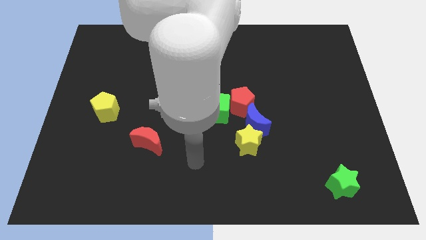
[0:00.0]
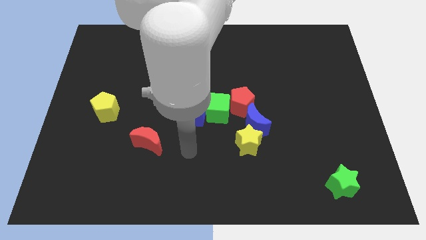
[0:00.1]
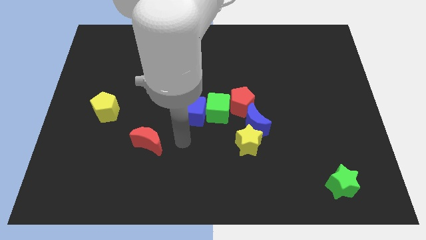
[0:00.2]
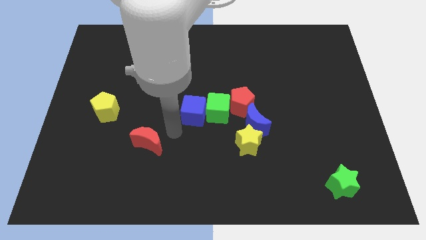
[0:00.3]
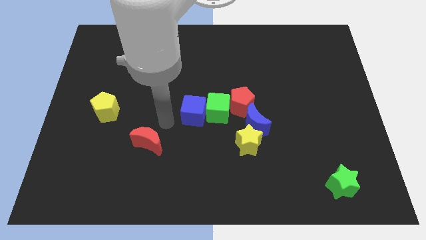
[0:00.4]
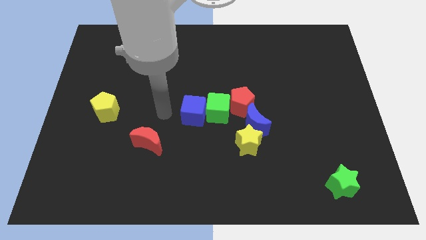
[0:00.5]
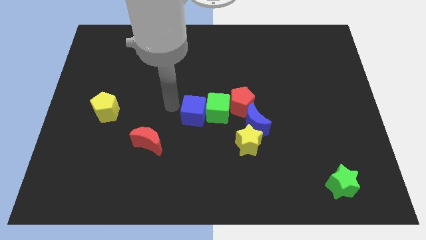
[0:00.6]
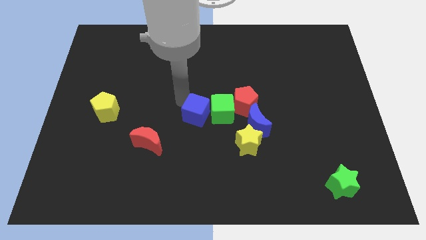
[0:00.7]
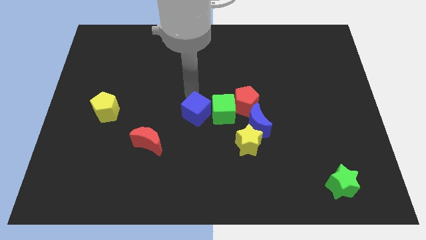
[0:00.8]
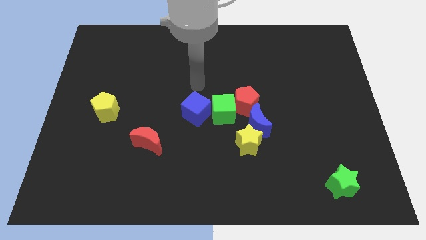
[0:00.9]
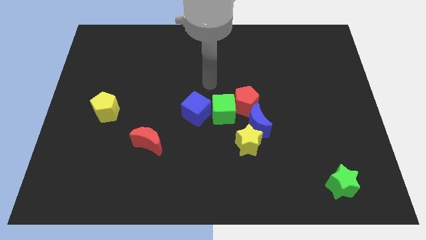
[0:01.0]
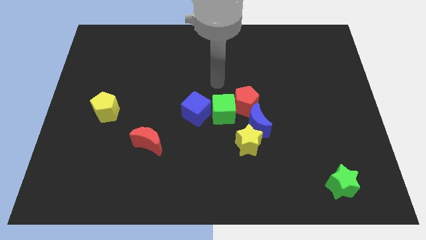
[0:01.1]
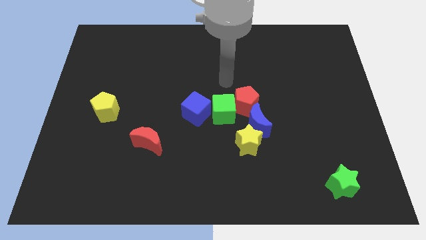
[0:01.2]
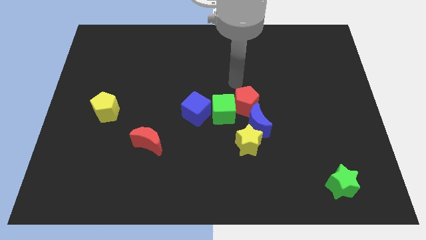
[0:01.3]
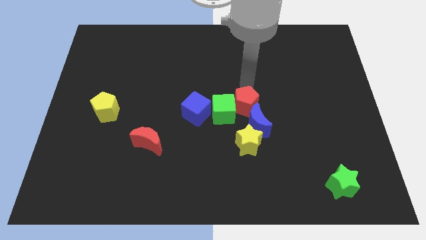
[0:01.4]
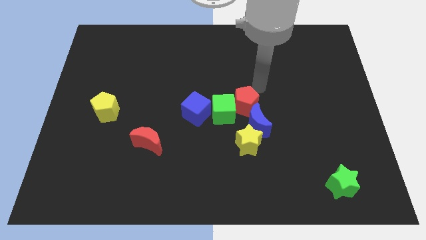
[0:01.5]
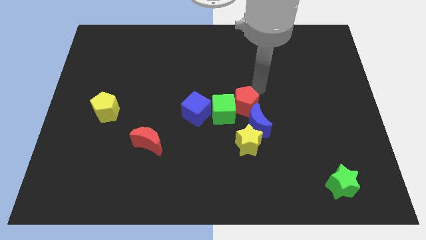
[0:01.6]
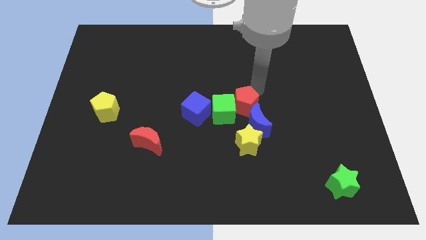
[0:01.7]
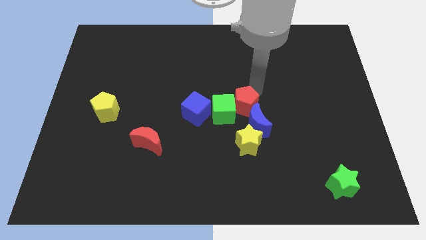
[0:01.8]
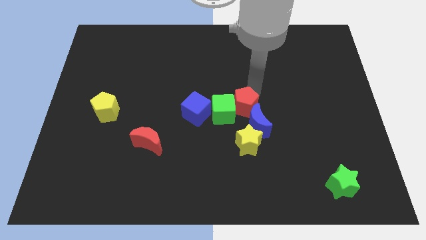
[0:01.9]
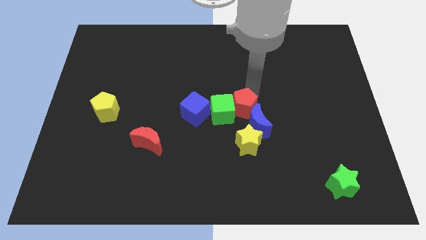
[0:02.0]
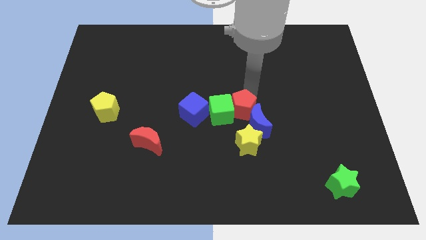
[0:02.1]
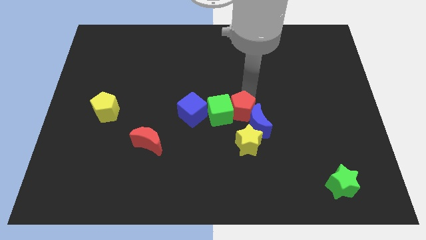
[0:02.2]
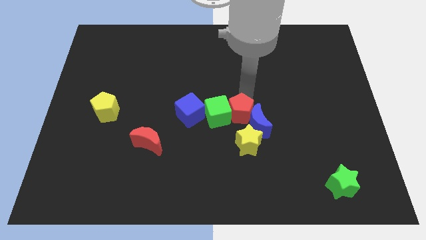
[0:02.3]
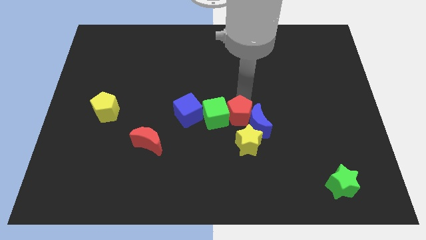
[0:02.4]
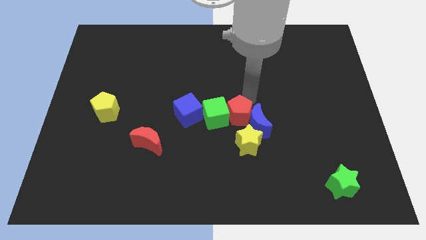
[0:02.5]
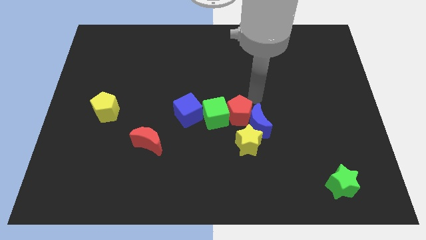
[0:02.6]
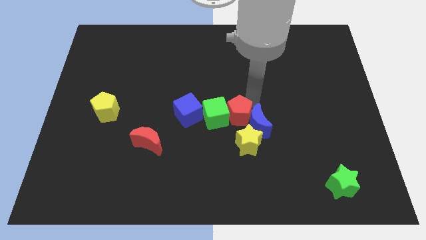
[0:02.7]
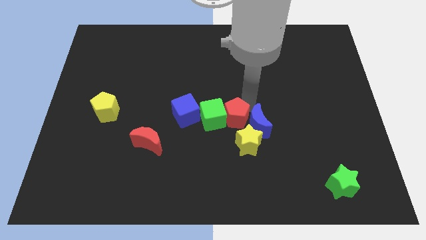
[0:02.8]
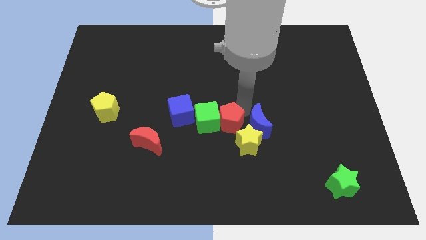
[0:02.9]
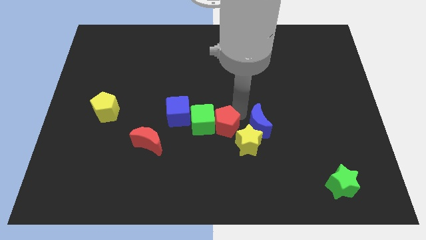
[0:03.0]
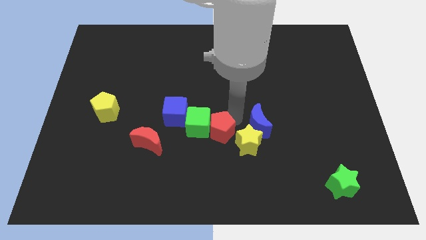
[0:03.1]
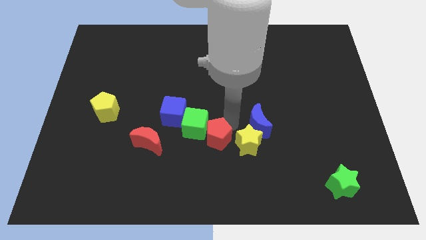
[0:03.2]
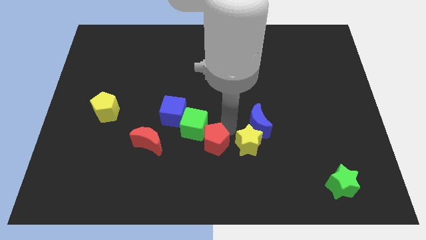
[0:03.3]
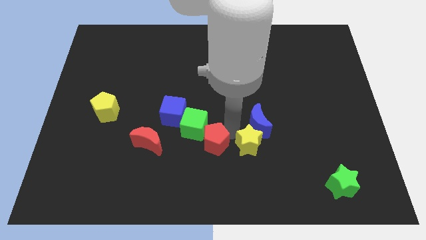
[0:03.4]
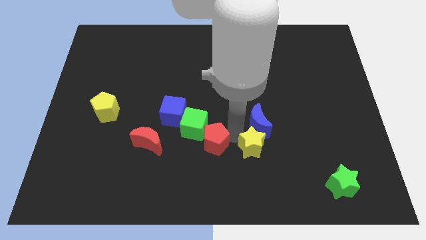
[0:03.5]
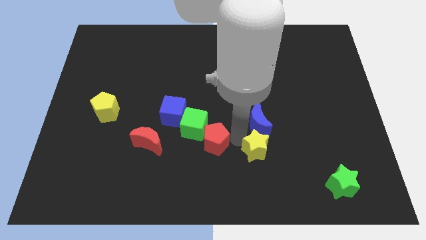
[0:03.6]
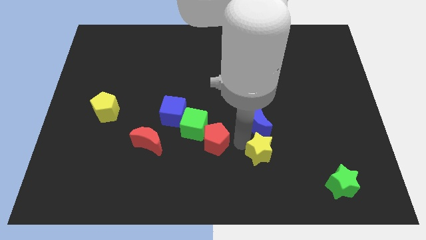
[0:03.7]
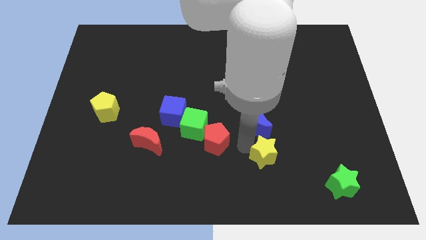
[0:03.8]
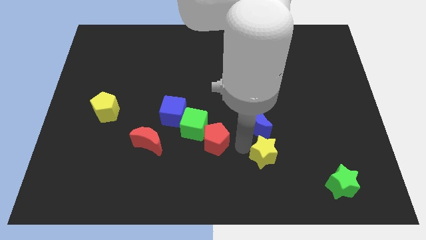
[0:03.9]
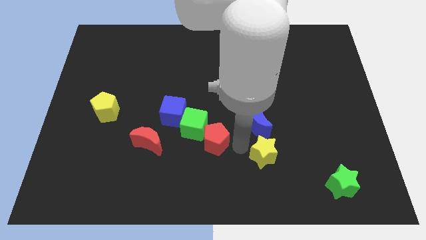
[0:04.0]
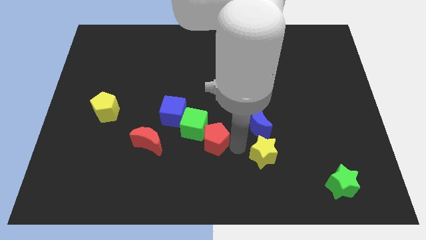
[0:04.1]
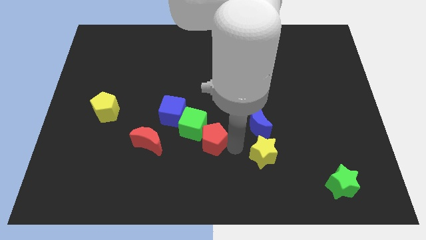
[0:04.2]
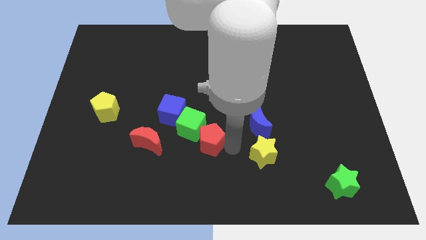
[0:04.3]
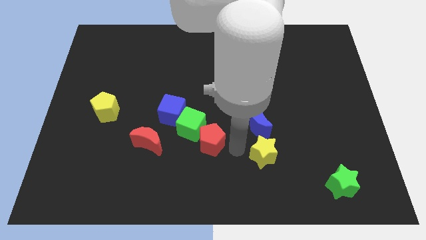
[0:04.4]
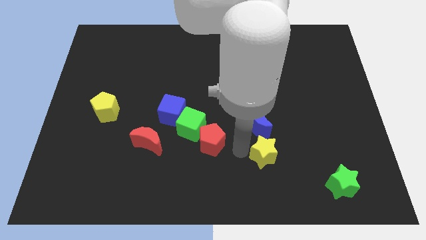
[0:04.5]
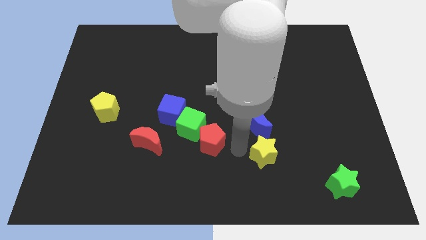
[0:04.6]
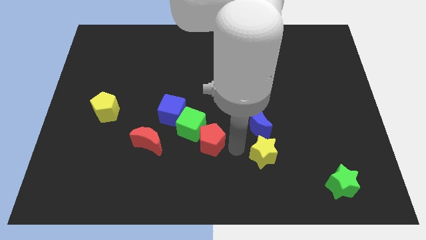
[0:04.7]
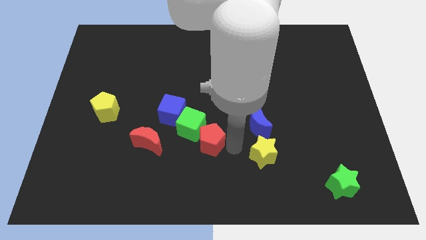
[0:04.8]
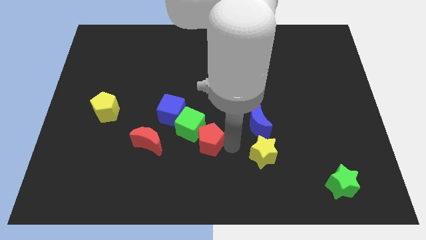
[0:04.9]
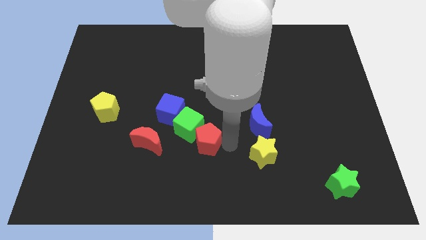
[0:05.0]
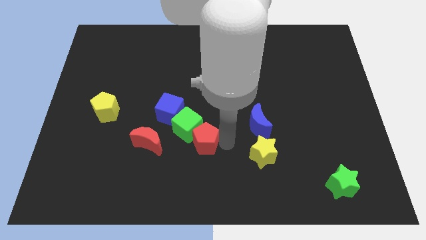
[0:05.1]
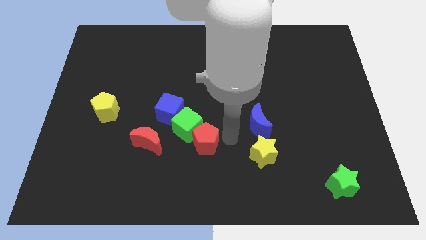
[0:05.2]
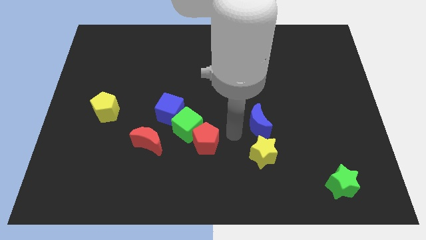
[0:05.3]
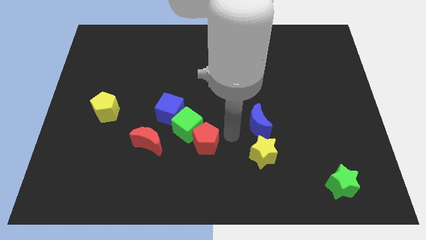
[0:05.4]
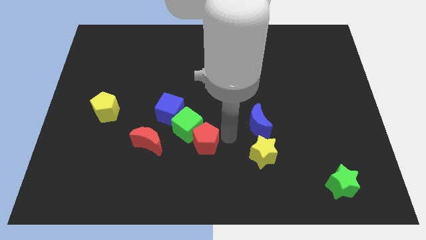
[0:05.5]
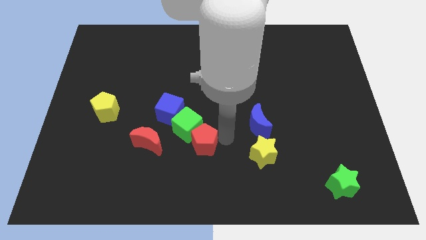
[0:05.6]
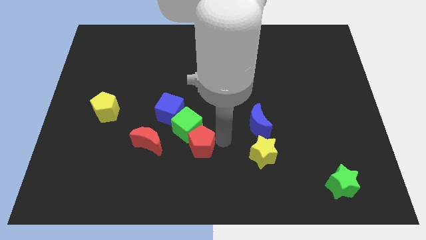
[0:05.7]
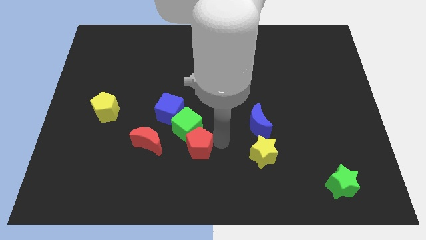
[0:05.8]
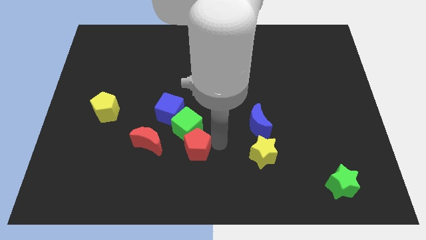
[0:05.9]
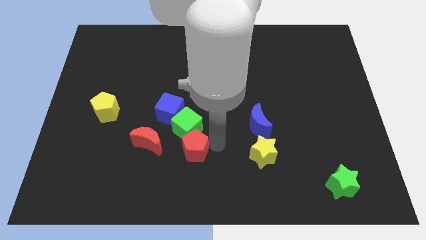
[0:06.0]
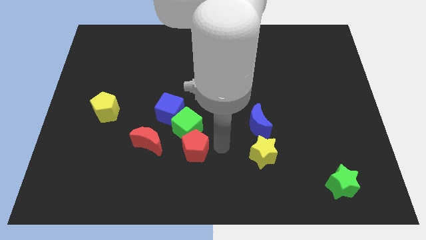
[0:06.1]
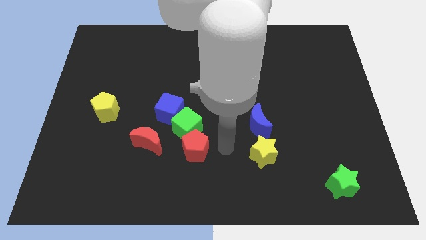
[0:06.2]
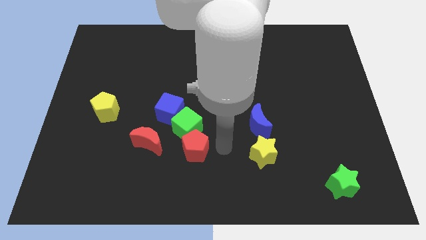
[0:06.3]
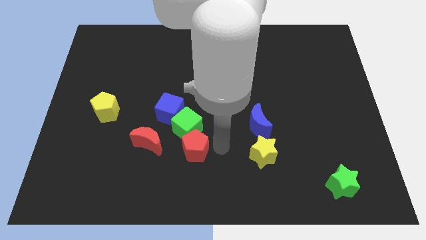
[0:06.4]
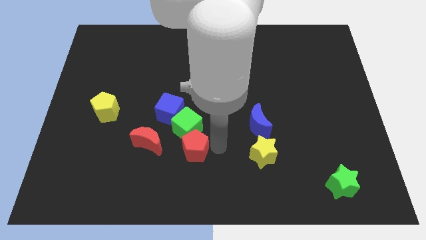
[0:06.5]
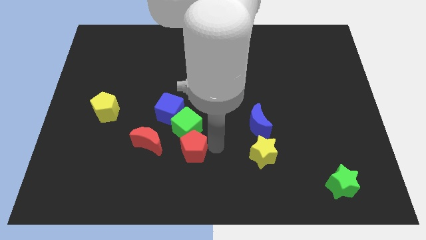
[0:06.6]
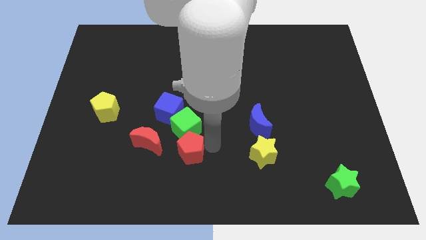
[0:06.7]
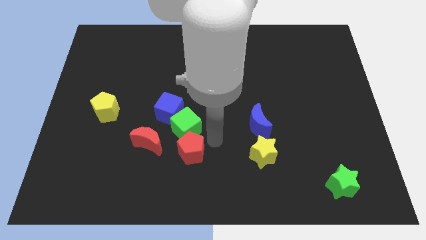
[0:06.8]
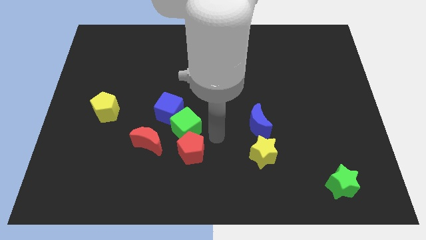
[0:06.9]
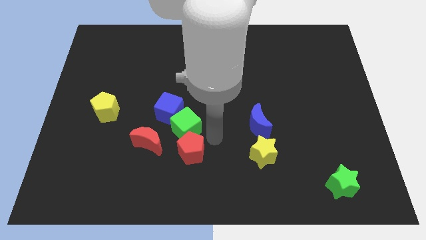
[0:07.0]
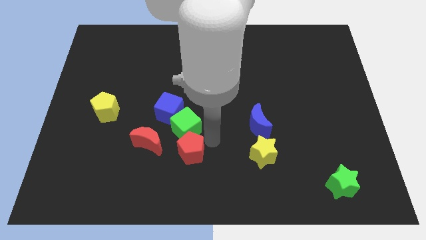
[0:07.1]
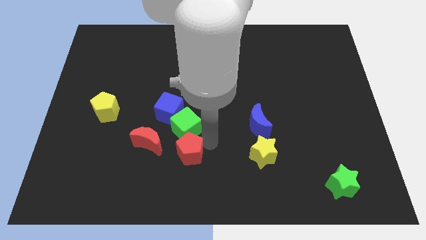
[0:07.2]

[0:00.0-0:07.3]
move the red pentagon to the bottom right side of the red moon

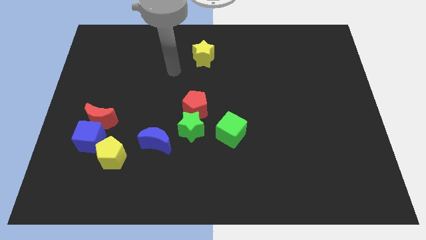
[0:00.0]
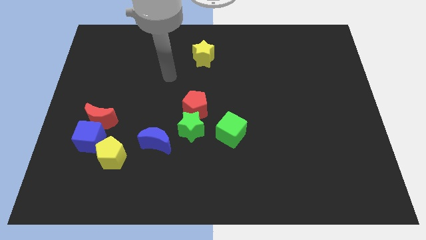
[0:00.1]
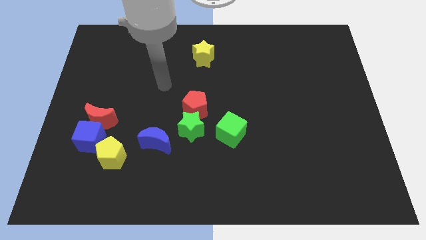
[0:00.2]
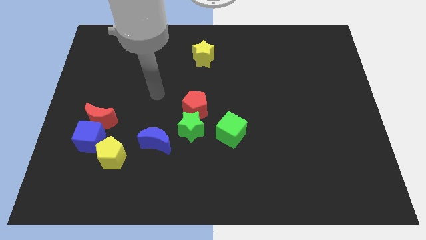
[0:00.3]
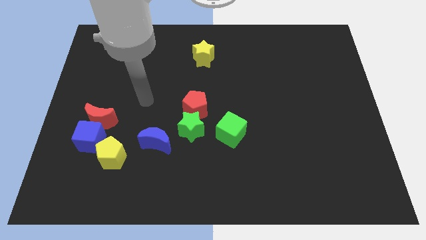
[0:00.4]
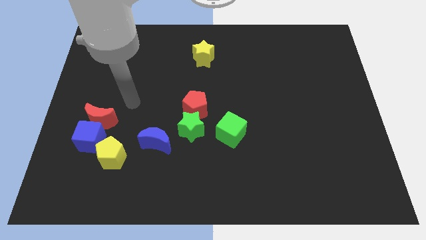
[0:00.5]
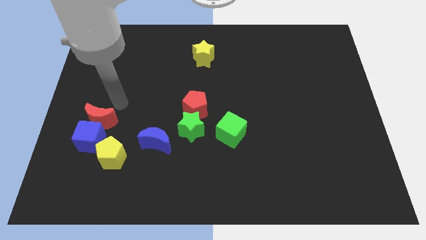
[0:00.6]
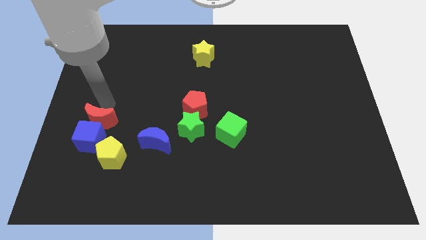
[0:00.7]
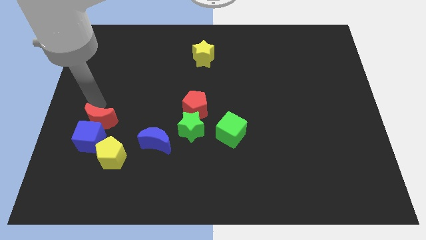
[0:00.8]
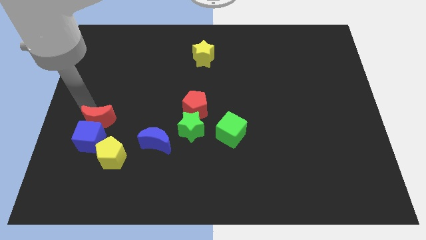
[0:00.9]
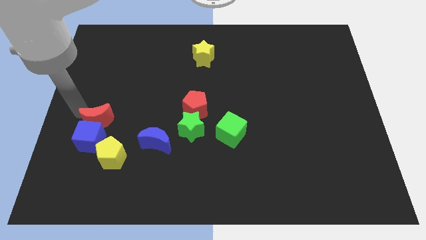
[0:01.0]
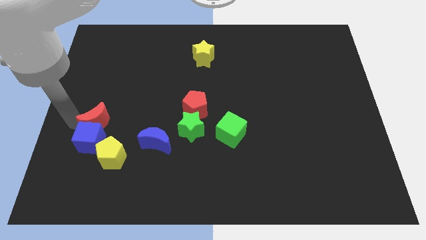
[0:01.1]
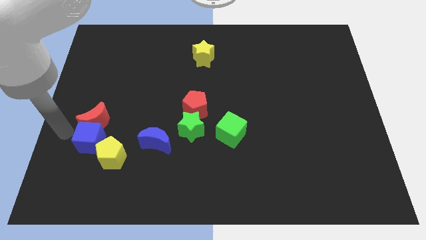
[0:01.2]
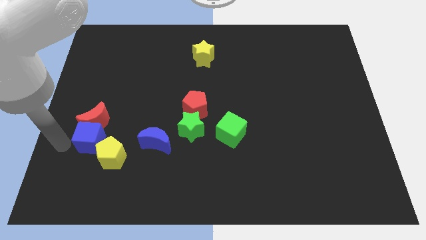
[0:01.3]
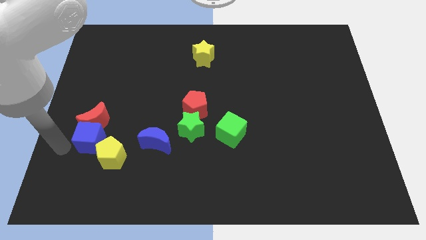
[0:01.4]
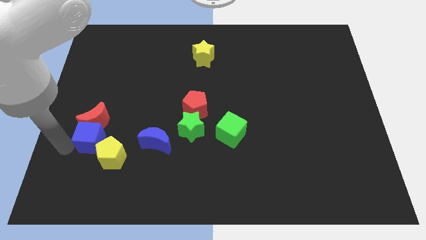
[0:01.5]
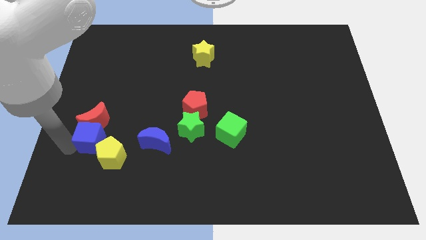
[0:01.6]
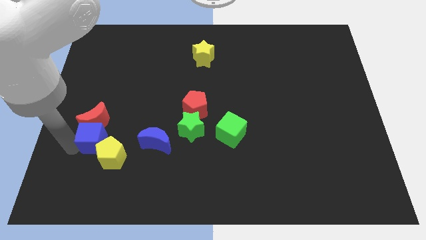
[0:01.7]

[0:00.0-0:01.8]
slide the blue cube to the top of the yellow pentagon
